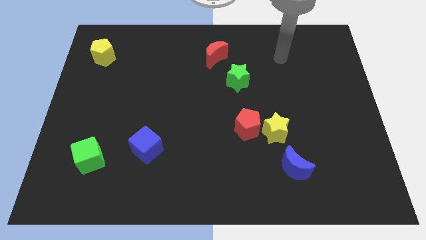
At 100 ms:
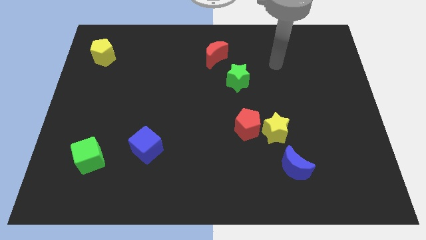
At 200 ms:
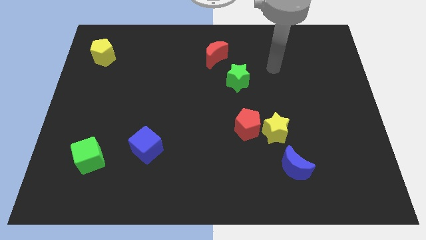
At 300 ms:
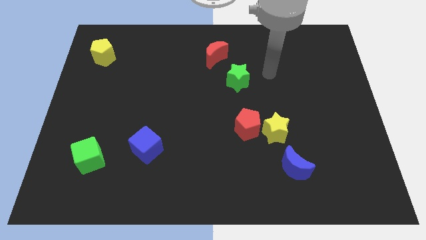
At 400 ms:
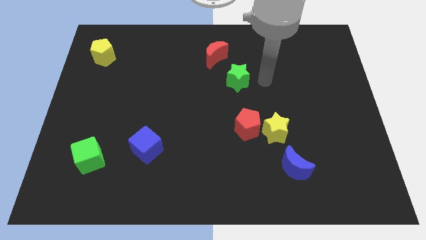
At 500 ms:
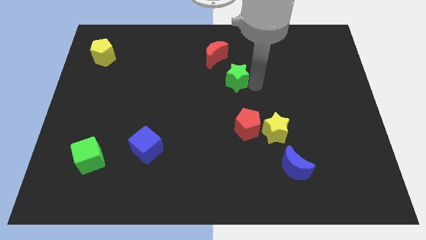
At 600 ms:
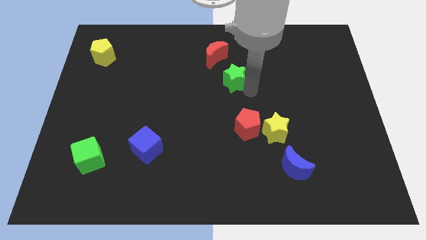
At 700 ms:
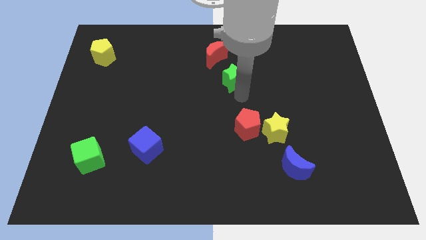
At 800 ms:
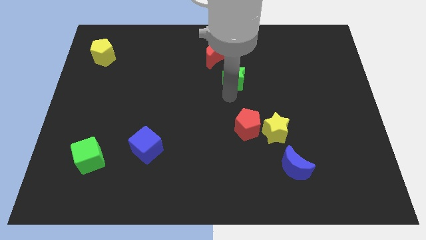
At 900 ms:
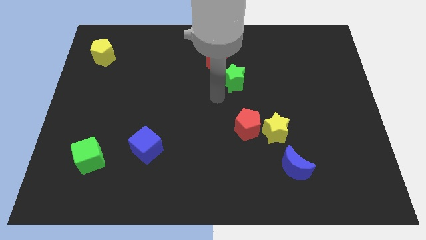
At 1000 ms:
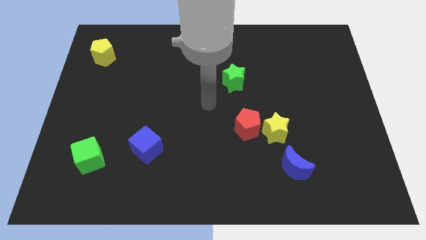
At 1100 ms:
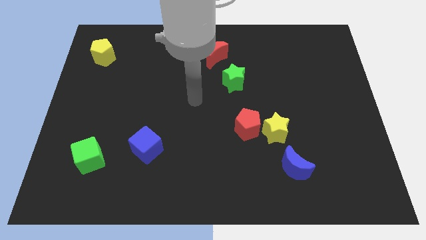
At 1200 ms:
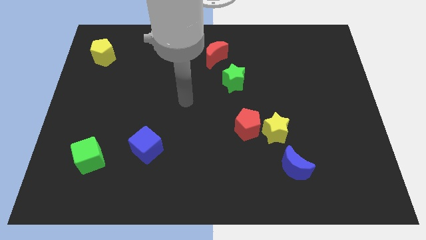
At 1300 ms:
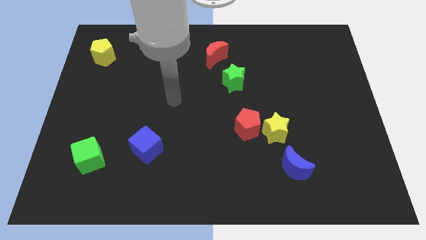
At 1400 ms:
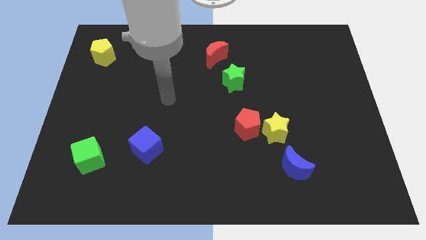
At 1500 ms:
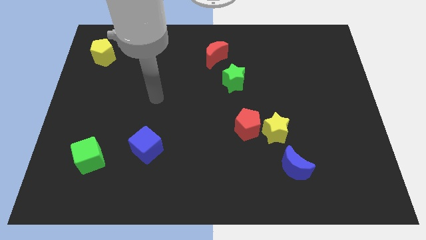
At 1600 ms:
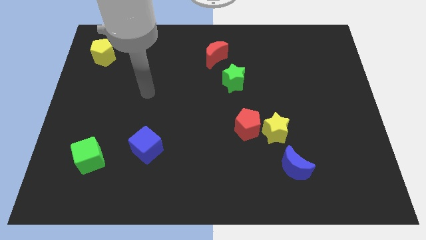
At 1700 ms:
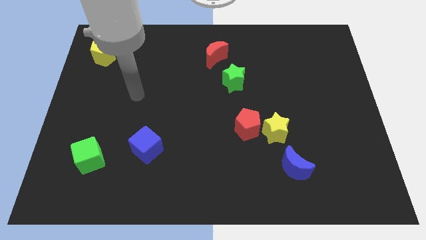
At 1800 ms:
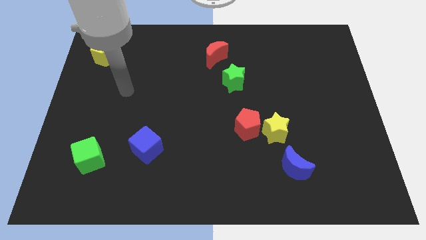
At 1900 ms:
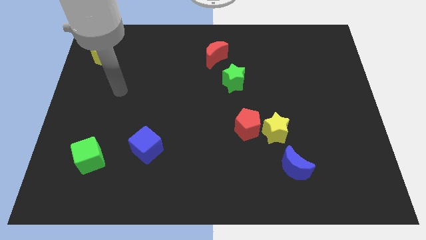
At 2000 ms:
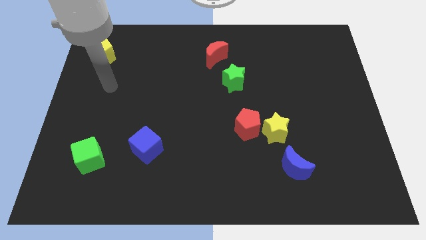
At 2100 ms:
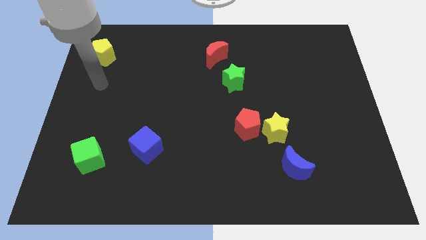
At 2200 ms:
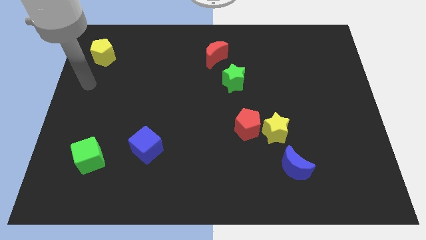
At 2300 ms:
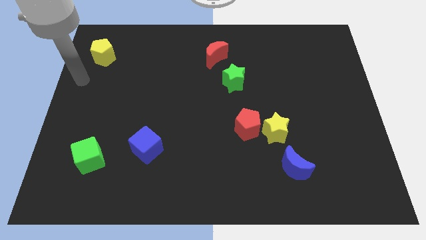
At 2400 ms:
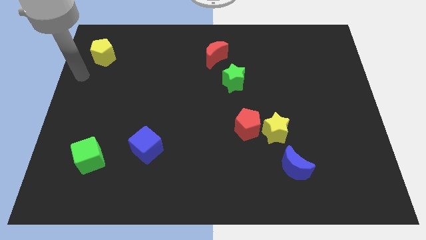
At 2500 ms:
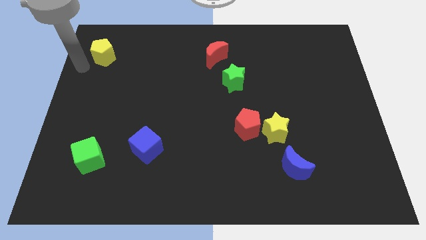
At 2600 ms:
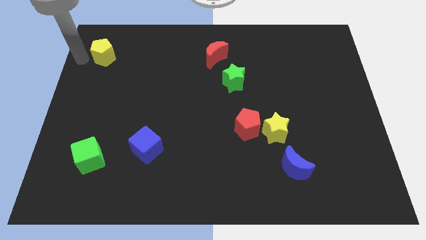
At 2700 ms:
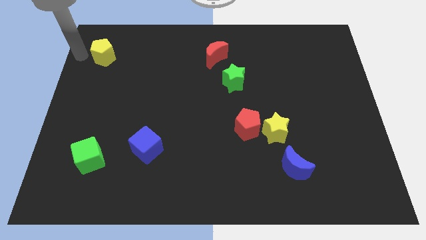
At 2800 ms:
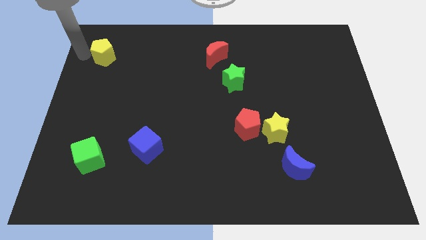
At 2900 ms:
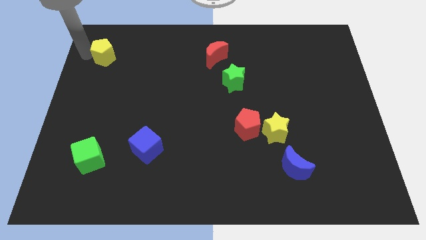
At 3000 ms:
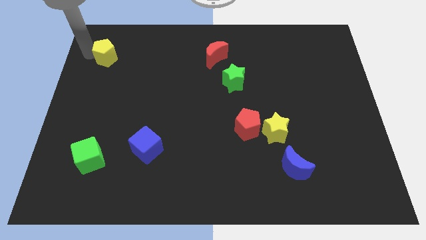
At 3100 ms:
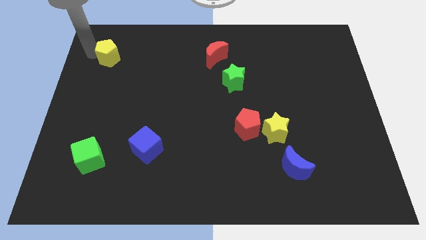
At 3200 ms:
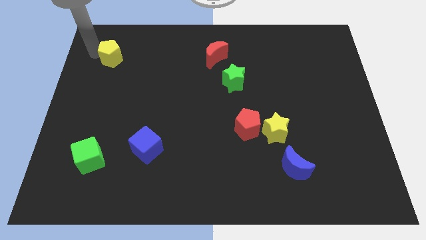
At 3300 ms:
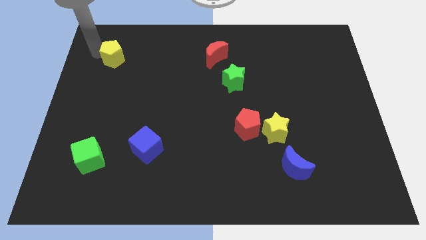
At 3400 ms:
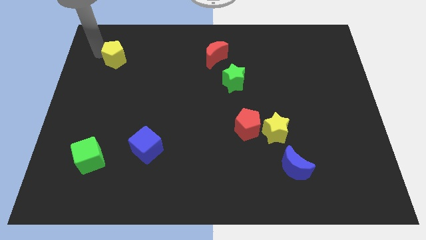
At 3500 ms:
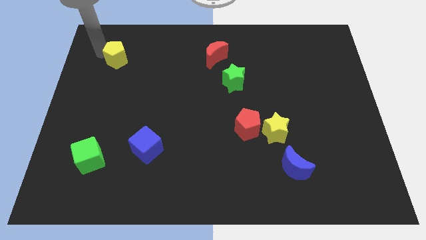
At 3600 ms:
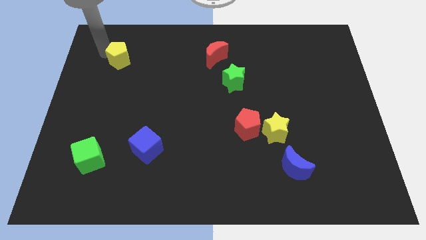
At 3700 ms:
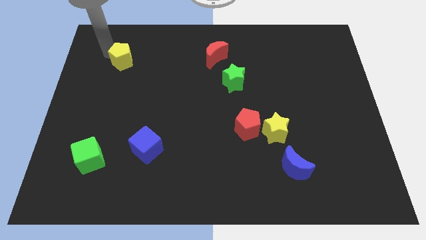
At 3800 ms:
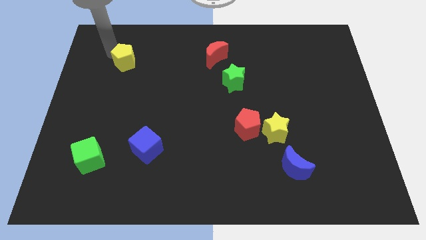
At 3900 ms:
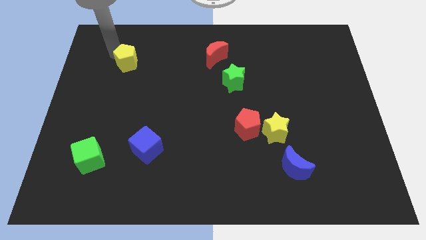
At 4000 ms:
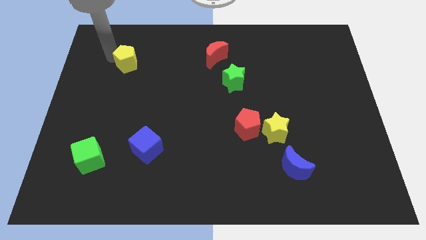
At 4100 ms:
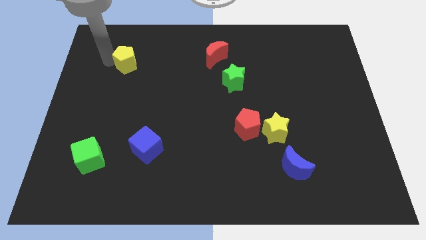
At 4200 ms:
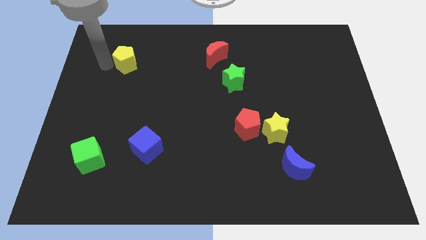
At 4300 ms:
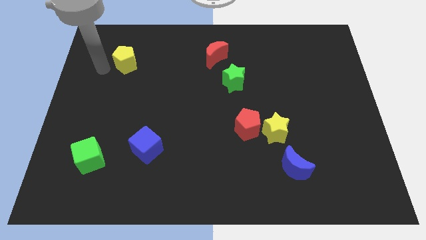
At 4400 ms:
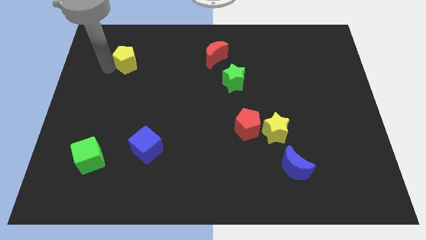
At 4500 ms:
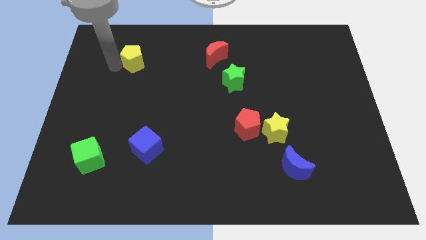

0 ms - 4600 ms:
slide the yellow pentagon a bit right

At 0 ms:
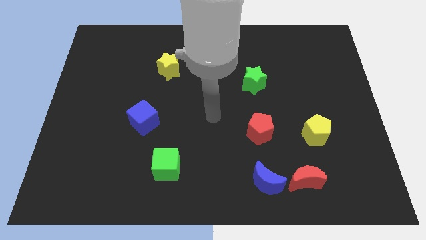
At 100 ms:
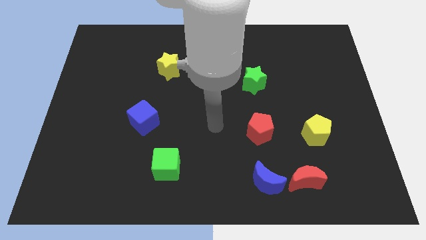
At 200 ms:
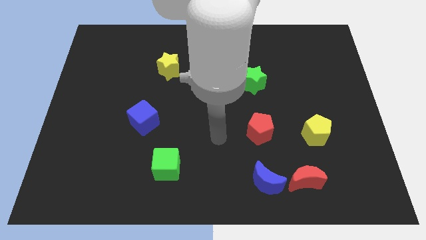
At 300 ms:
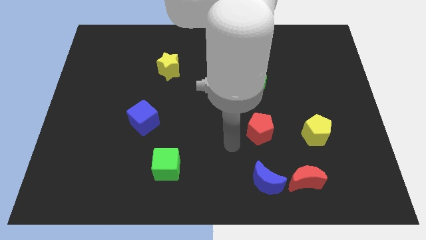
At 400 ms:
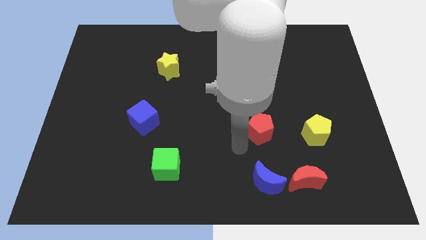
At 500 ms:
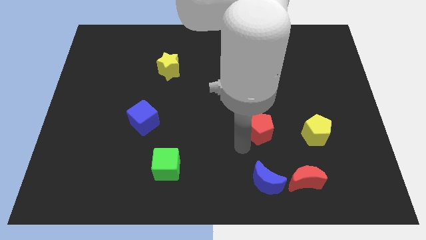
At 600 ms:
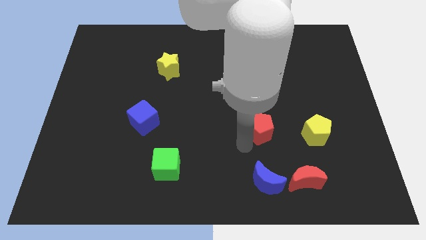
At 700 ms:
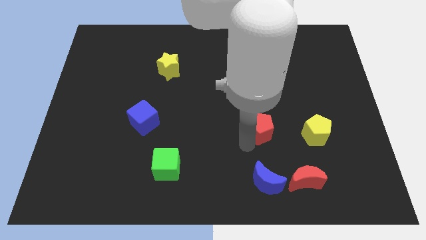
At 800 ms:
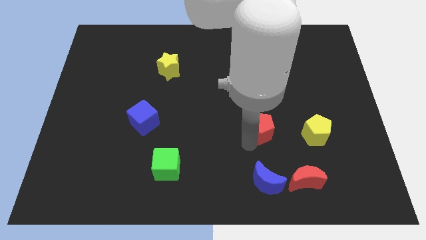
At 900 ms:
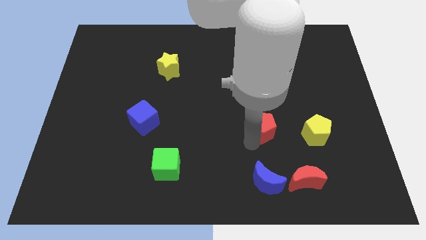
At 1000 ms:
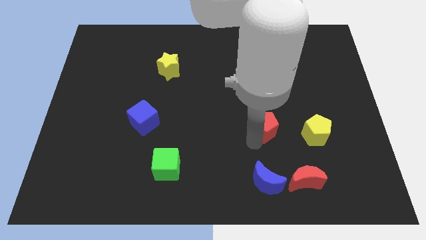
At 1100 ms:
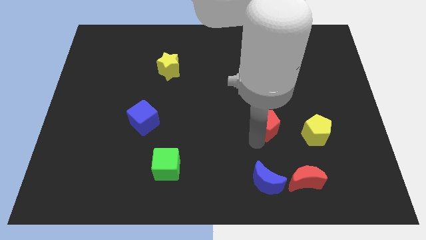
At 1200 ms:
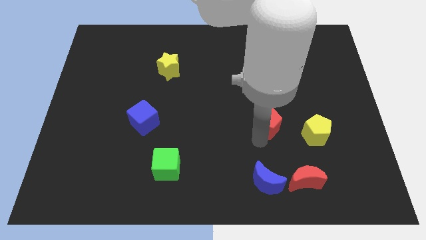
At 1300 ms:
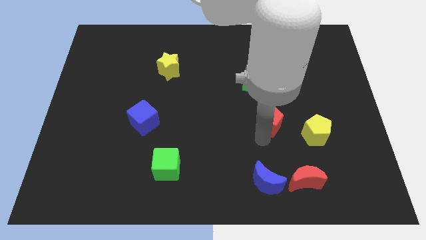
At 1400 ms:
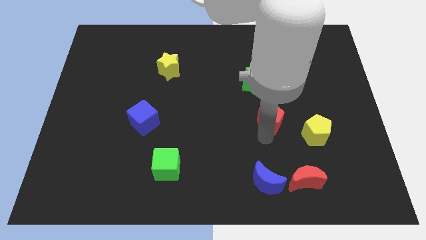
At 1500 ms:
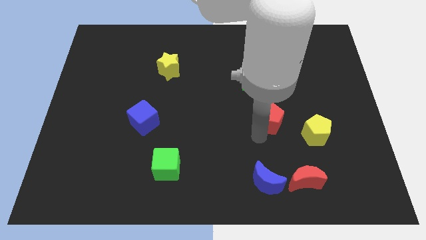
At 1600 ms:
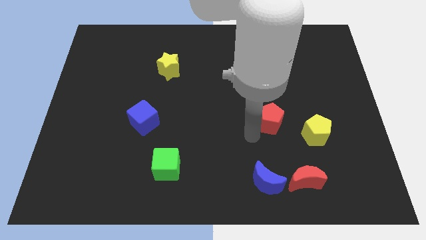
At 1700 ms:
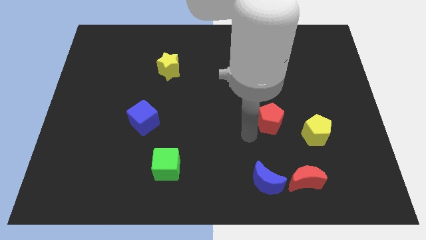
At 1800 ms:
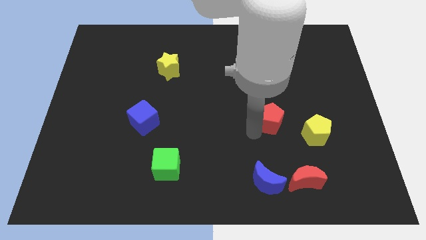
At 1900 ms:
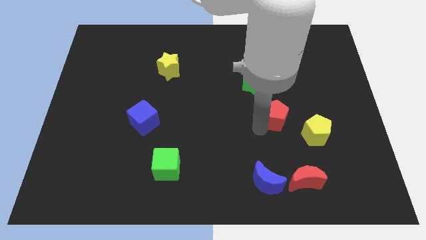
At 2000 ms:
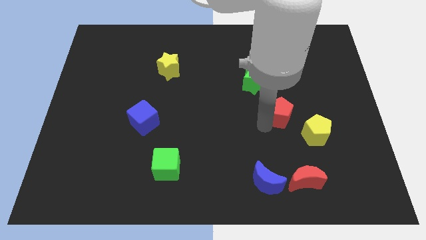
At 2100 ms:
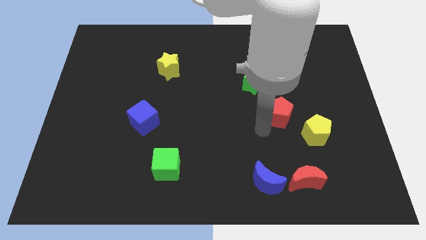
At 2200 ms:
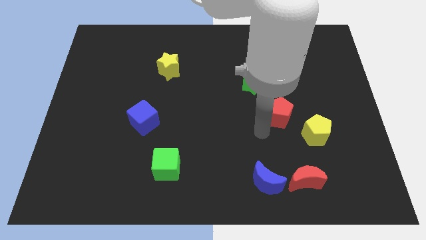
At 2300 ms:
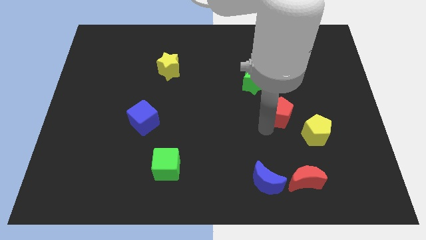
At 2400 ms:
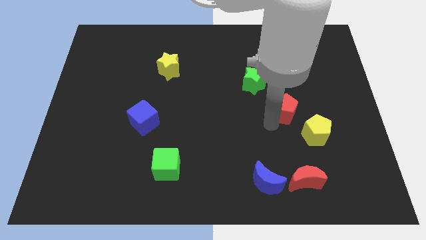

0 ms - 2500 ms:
slightly move the red pentagon upwards and to the right diagonally

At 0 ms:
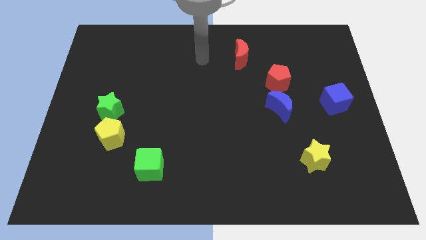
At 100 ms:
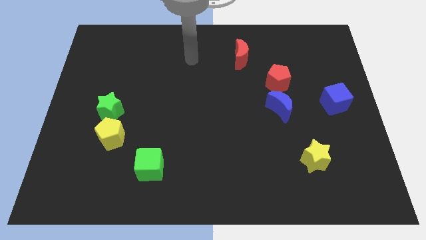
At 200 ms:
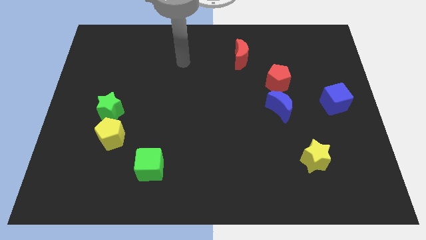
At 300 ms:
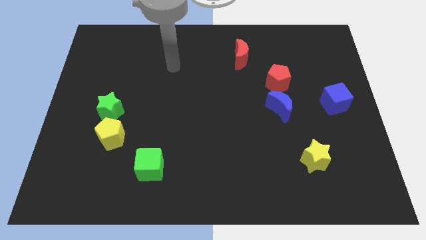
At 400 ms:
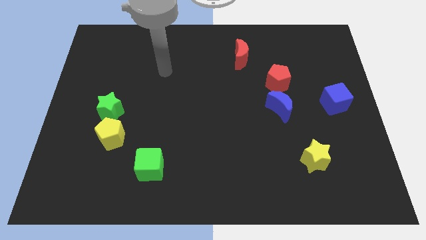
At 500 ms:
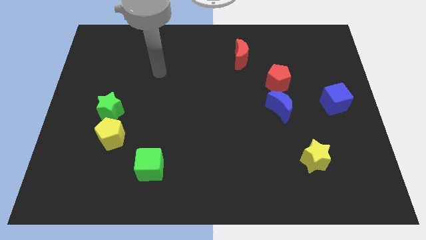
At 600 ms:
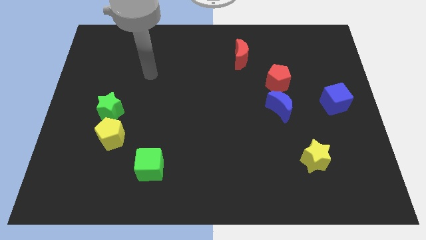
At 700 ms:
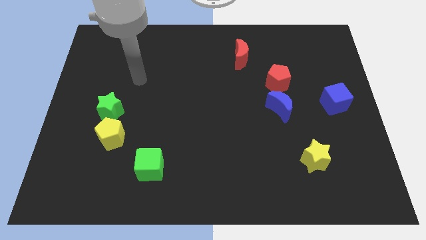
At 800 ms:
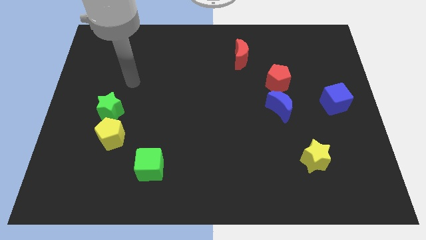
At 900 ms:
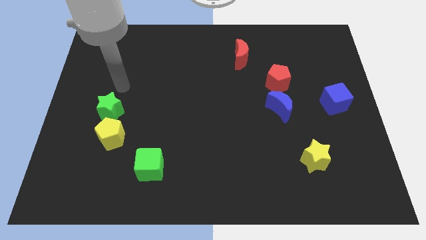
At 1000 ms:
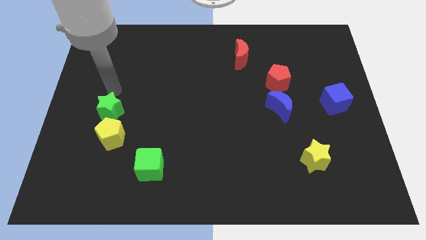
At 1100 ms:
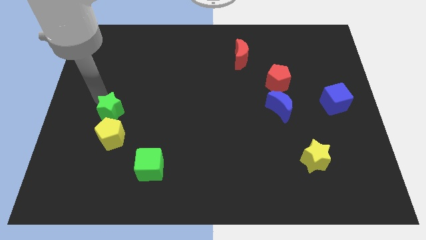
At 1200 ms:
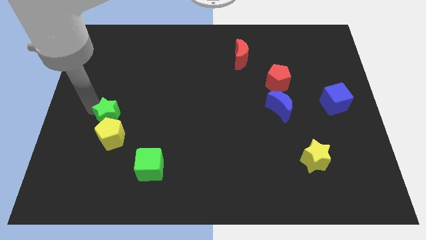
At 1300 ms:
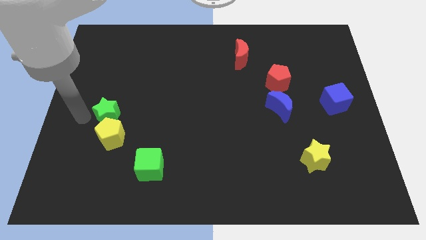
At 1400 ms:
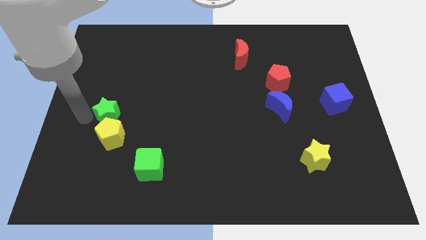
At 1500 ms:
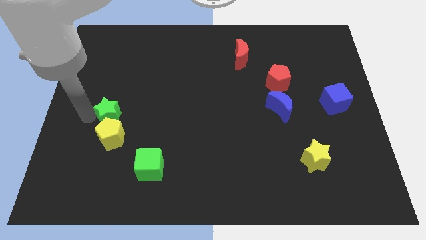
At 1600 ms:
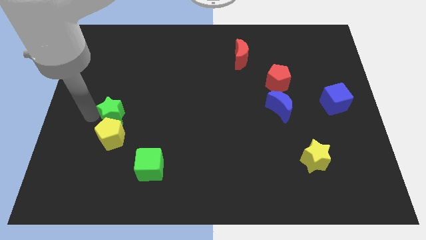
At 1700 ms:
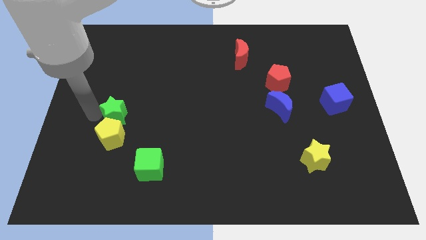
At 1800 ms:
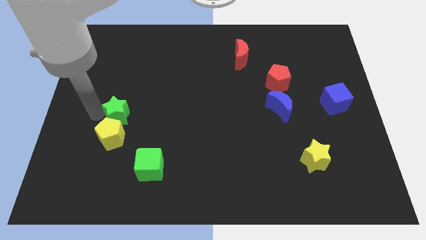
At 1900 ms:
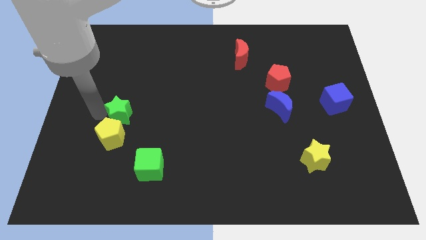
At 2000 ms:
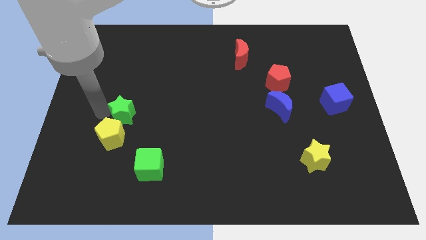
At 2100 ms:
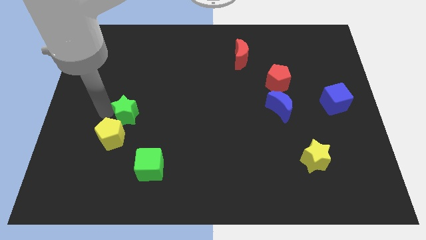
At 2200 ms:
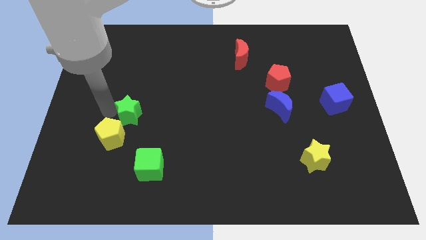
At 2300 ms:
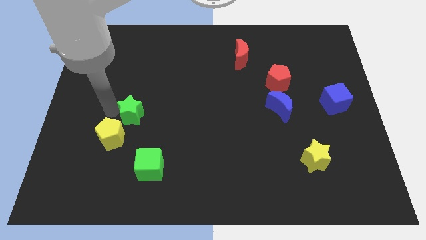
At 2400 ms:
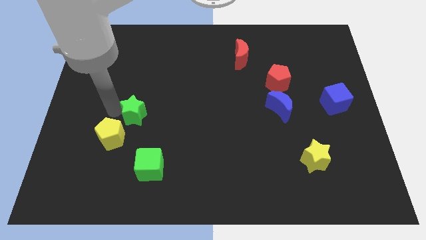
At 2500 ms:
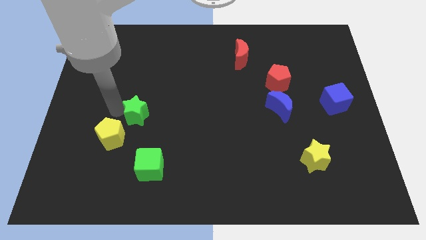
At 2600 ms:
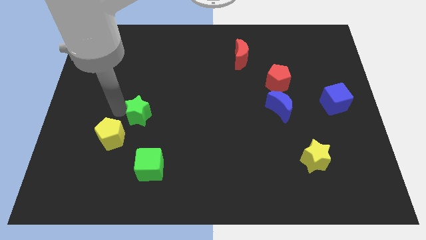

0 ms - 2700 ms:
push the green star somewhat right
